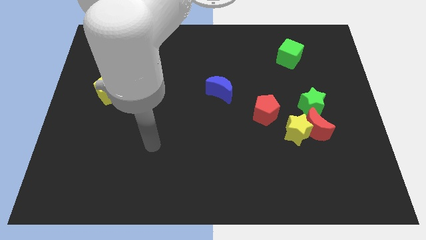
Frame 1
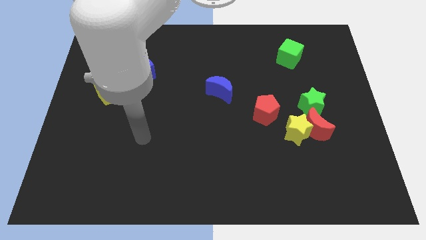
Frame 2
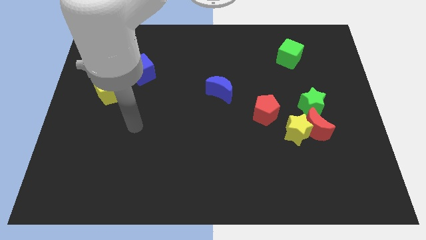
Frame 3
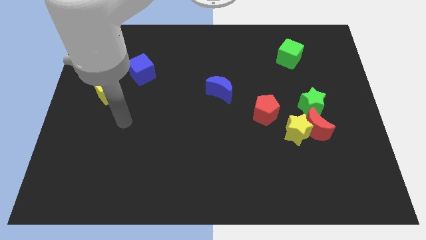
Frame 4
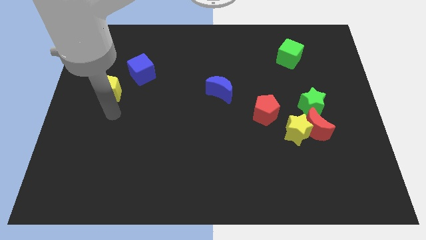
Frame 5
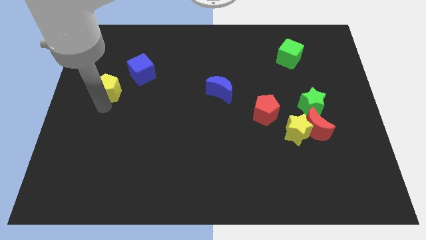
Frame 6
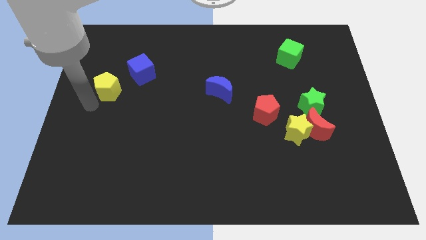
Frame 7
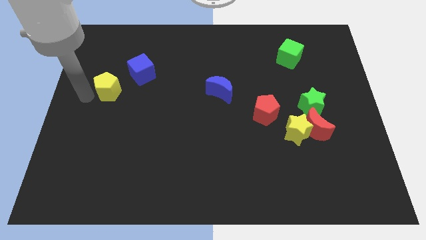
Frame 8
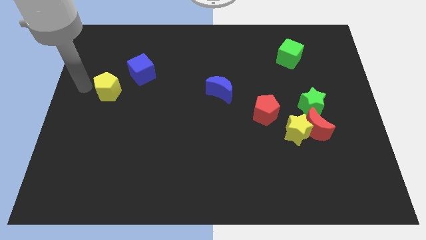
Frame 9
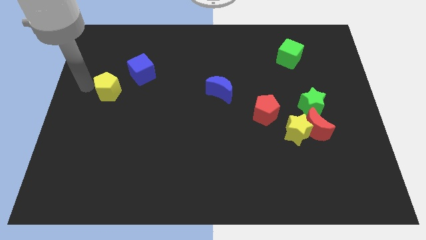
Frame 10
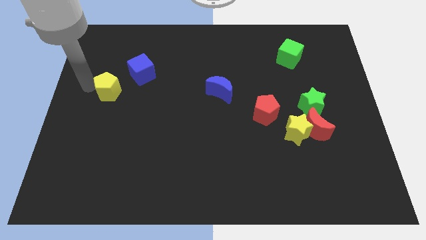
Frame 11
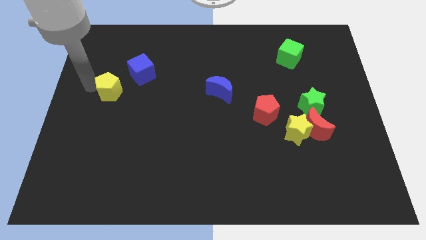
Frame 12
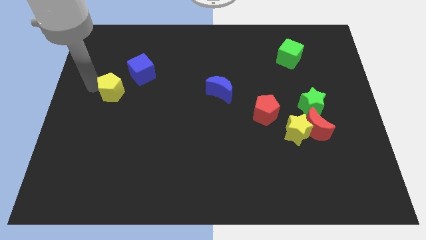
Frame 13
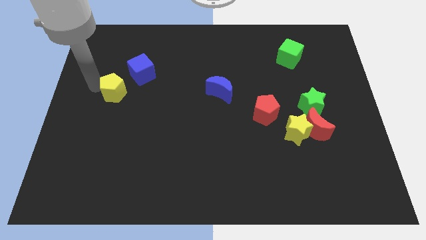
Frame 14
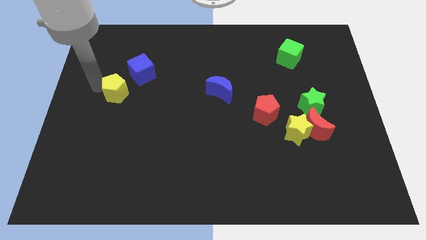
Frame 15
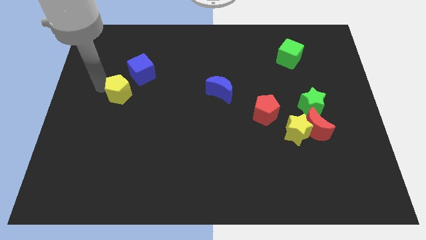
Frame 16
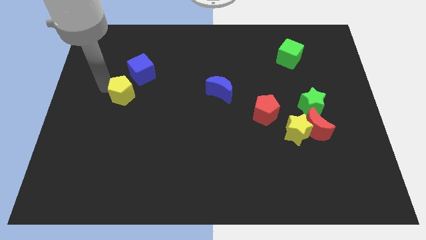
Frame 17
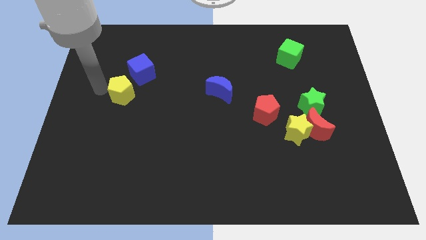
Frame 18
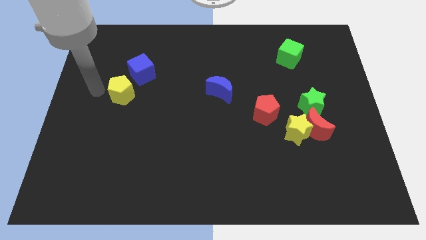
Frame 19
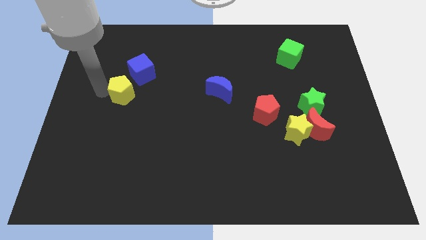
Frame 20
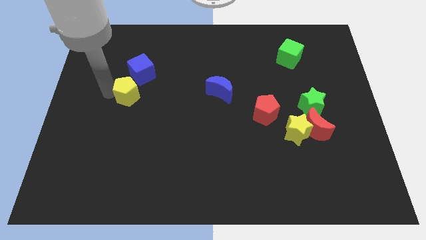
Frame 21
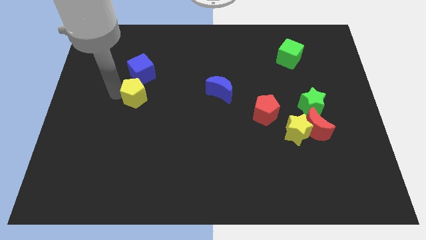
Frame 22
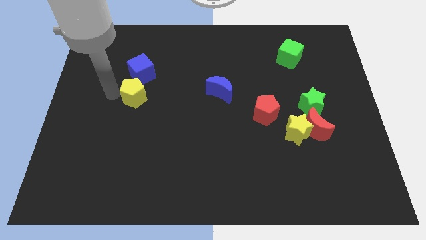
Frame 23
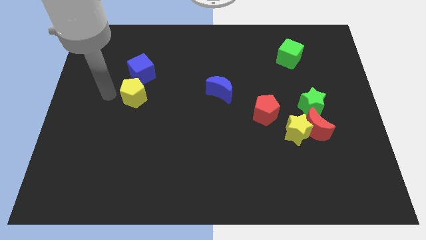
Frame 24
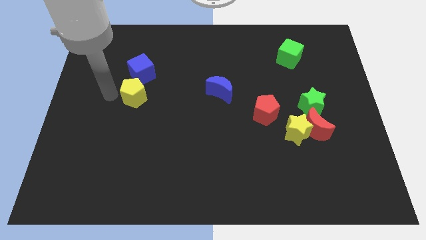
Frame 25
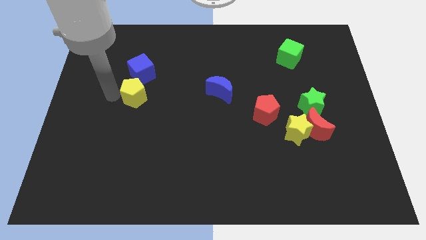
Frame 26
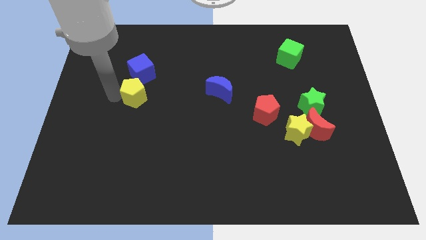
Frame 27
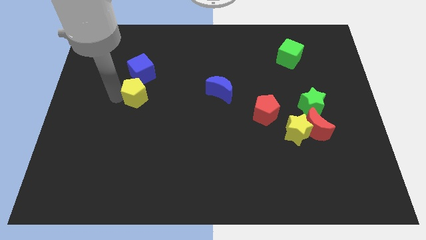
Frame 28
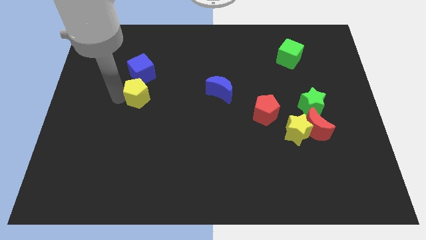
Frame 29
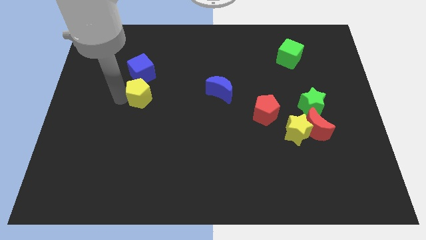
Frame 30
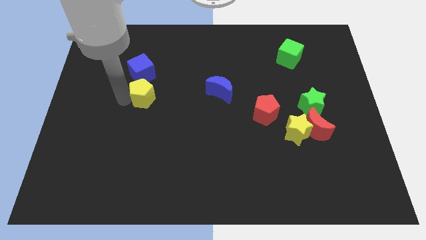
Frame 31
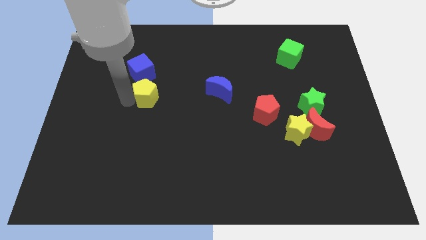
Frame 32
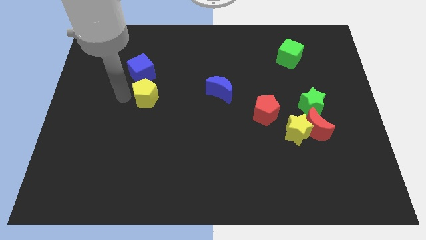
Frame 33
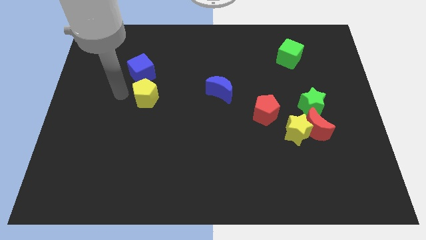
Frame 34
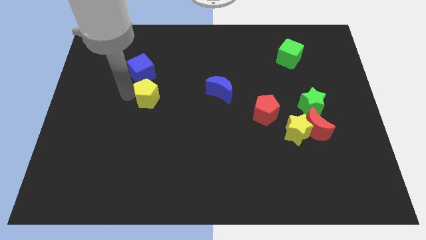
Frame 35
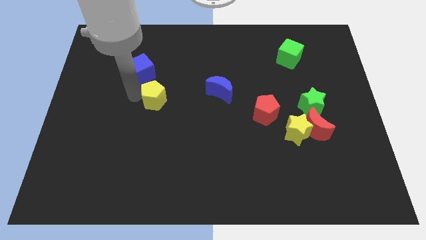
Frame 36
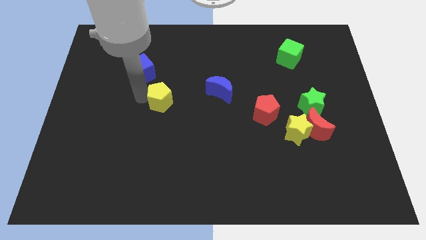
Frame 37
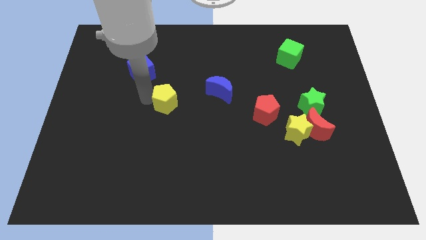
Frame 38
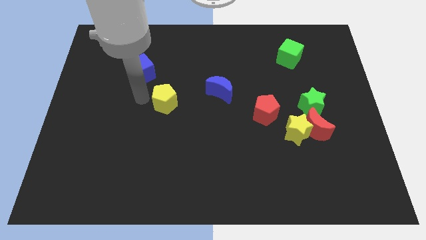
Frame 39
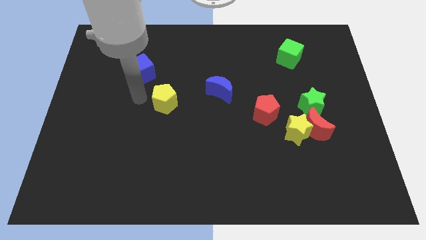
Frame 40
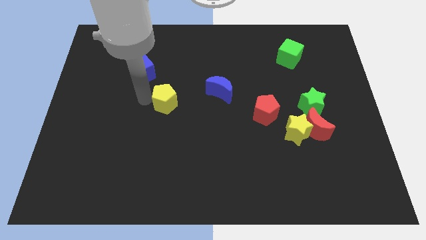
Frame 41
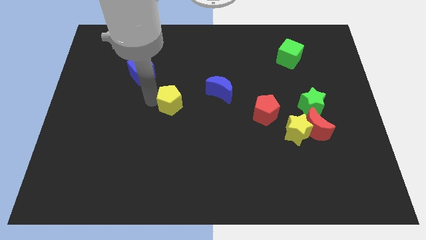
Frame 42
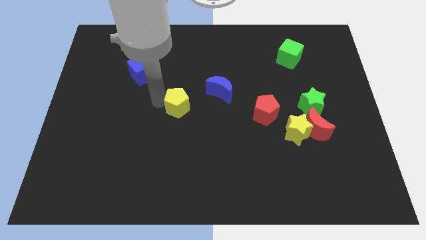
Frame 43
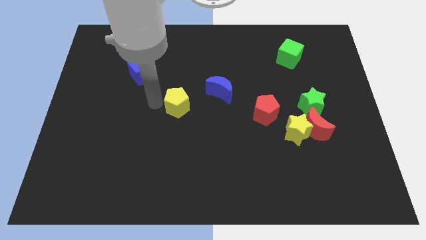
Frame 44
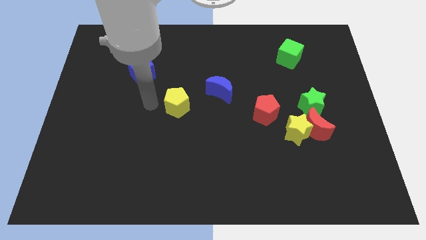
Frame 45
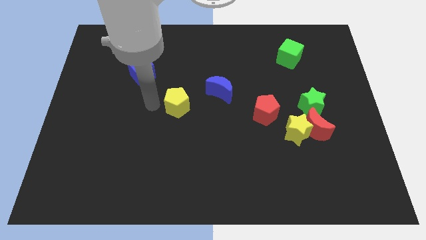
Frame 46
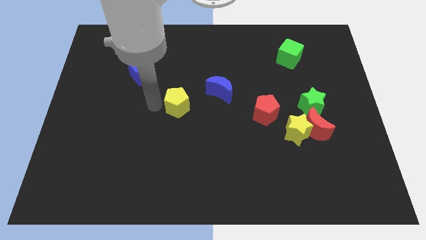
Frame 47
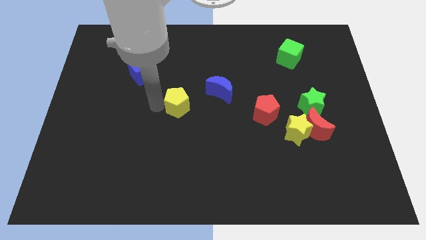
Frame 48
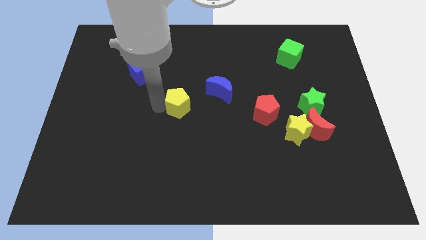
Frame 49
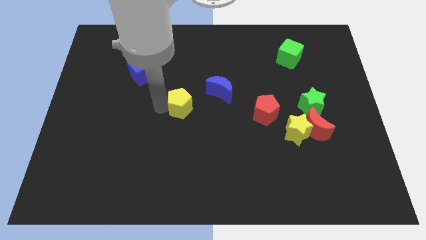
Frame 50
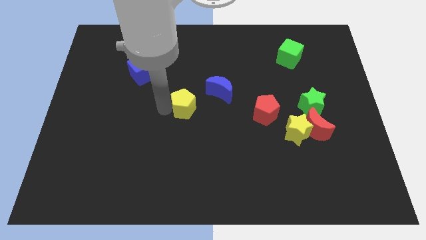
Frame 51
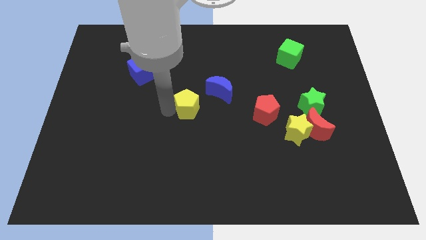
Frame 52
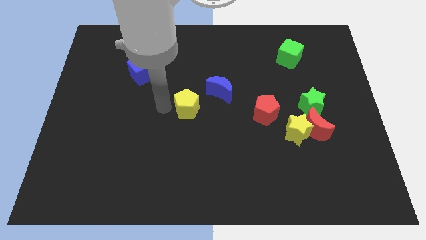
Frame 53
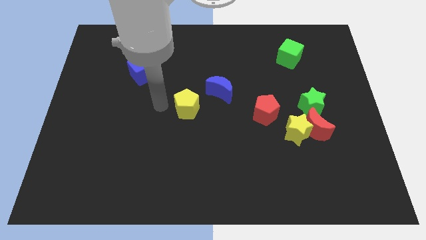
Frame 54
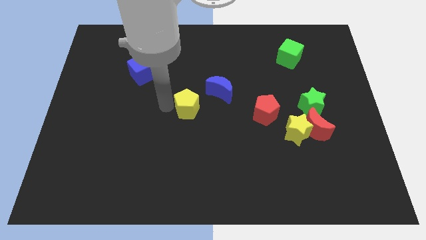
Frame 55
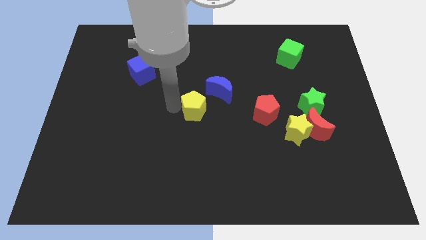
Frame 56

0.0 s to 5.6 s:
move the yellow pentagon right

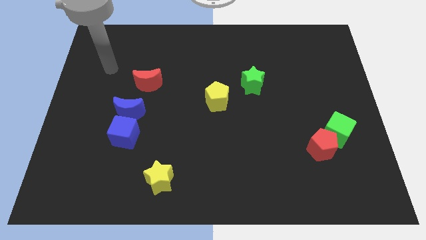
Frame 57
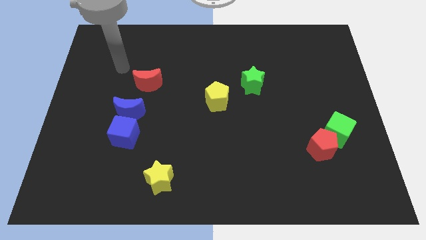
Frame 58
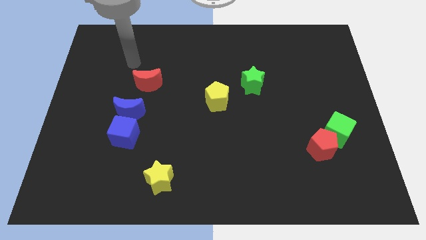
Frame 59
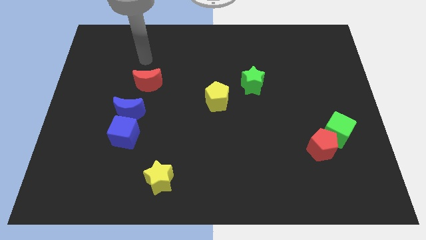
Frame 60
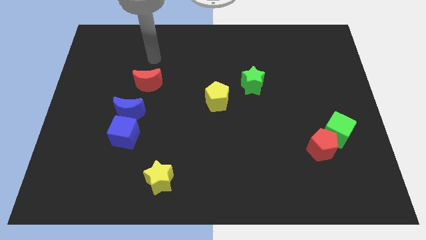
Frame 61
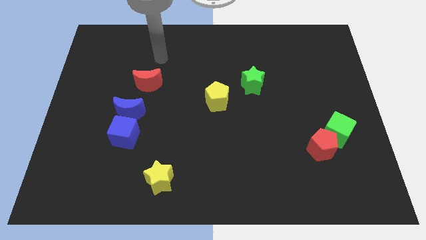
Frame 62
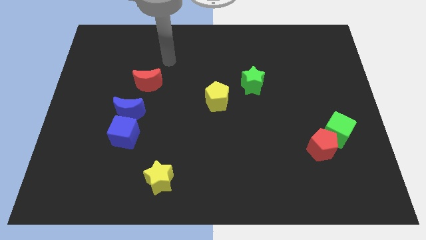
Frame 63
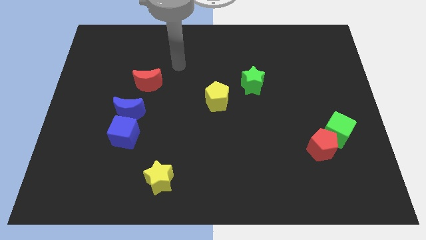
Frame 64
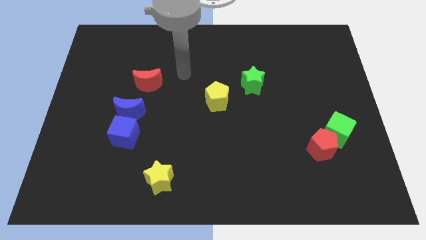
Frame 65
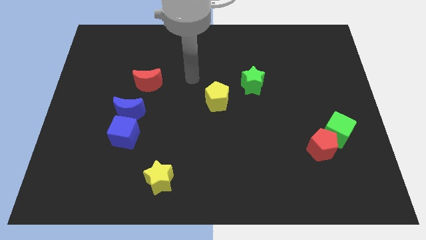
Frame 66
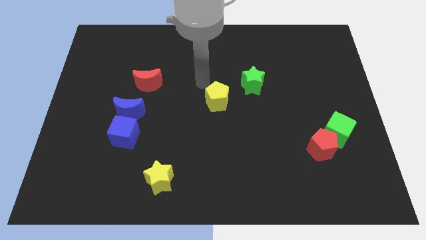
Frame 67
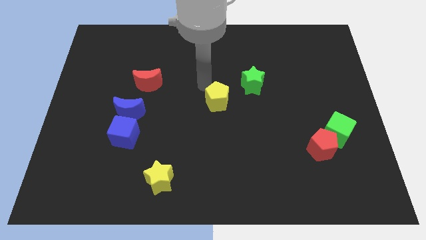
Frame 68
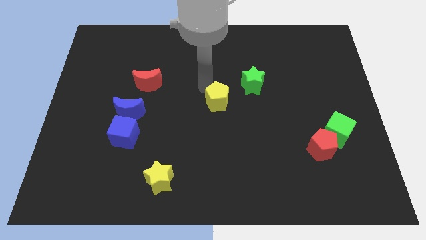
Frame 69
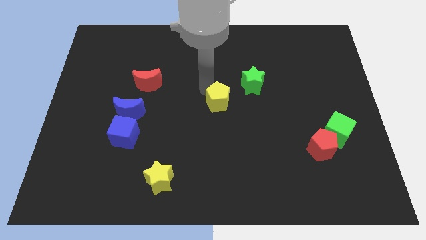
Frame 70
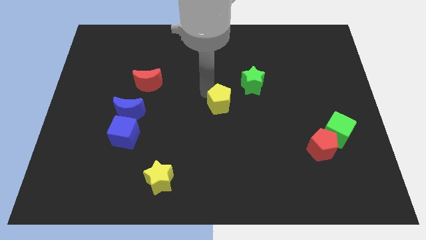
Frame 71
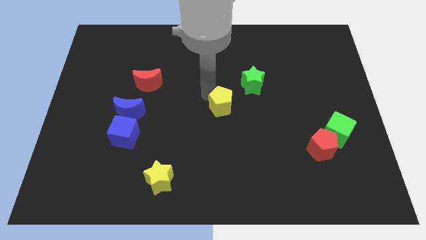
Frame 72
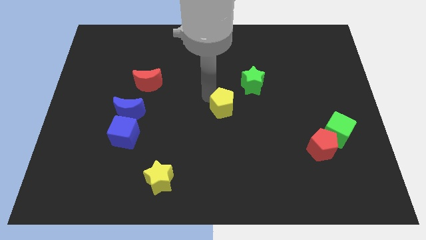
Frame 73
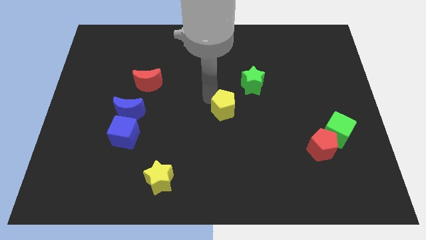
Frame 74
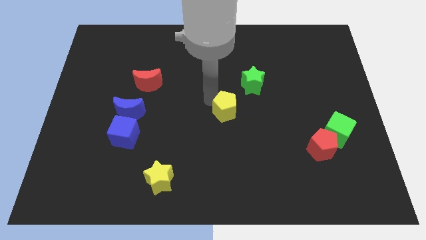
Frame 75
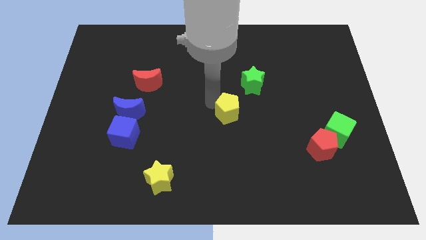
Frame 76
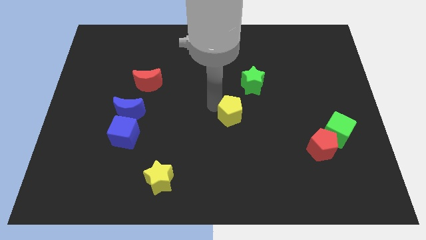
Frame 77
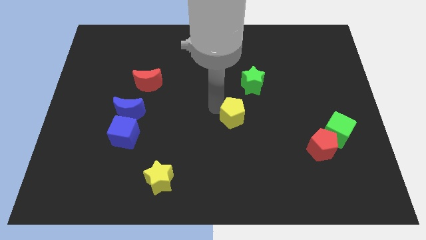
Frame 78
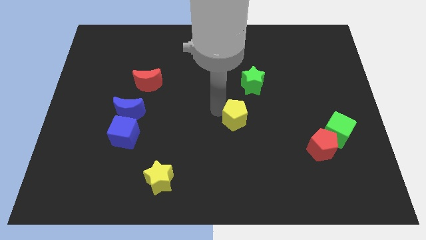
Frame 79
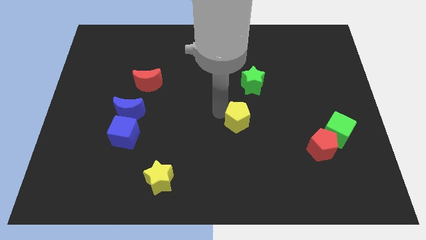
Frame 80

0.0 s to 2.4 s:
move the yellow pentagon down and to the right somewhat
